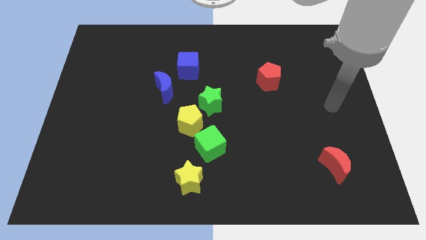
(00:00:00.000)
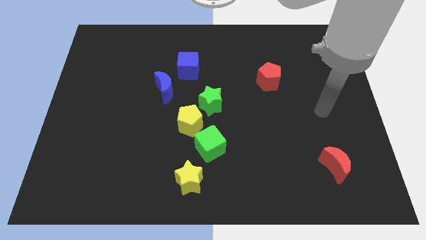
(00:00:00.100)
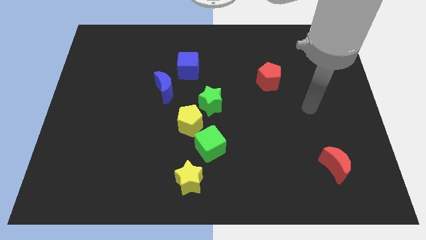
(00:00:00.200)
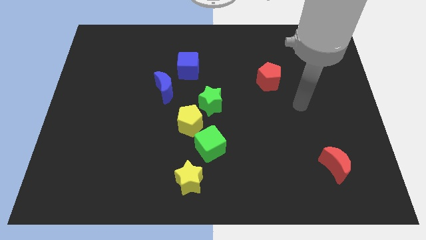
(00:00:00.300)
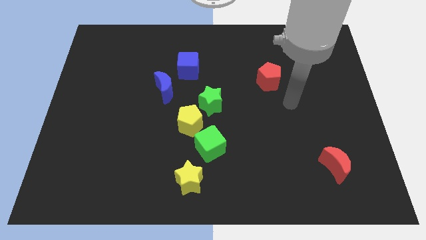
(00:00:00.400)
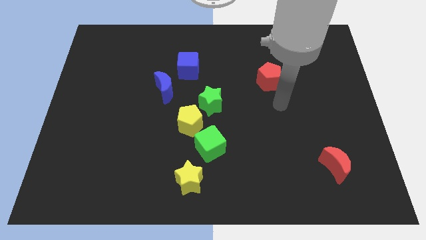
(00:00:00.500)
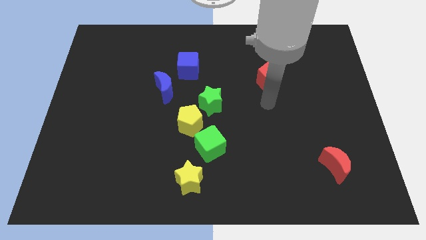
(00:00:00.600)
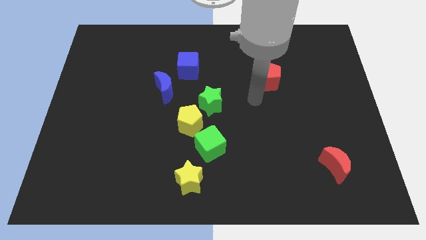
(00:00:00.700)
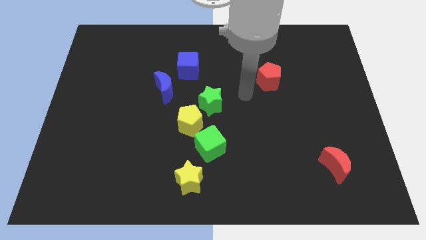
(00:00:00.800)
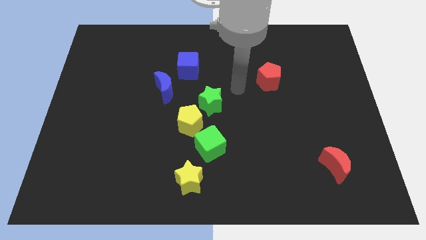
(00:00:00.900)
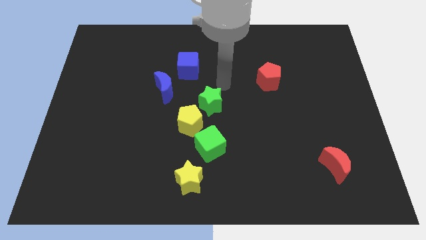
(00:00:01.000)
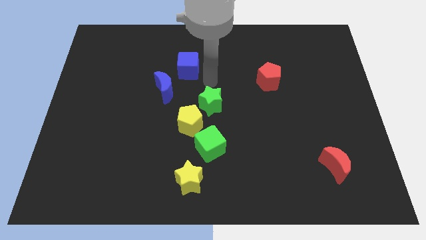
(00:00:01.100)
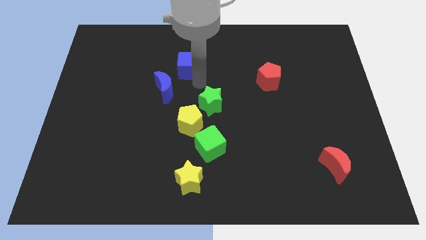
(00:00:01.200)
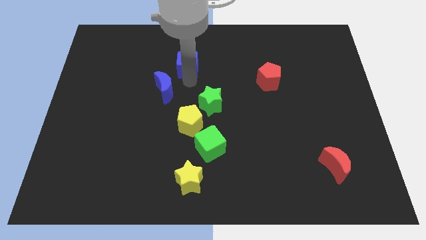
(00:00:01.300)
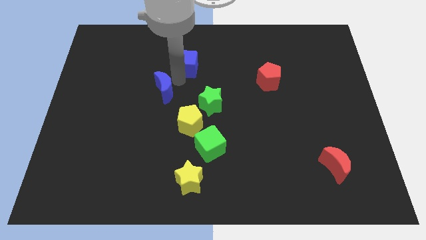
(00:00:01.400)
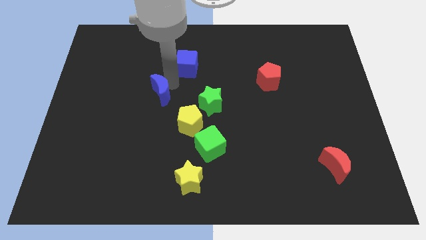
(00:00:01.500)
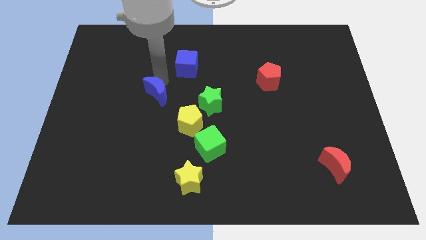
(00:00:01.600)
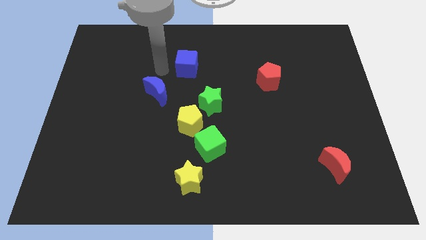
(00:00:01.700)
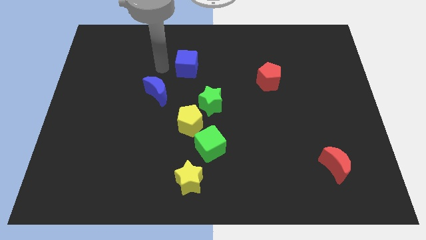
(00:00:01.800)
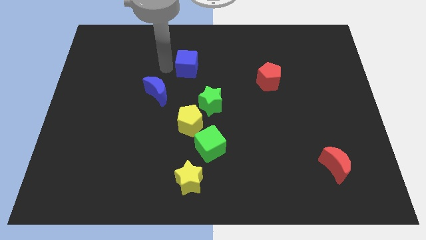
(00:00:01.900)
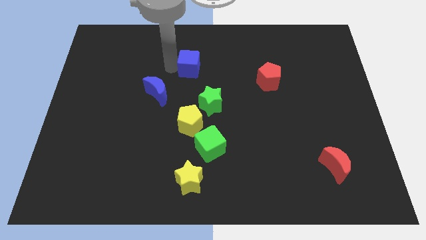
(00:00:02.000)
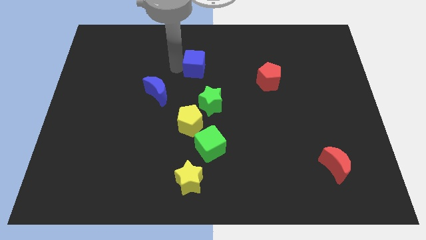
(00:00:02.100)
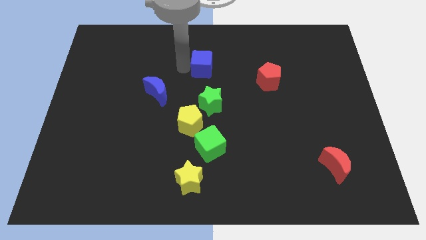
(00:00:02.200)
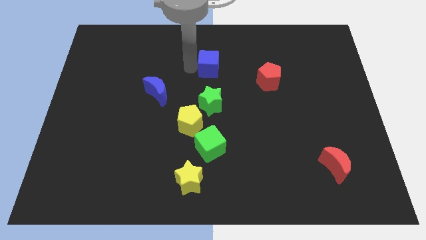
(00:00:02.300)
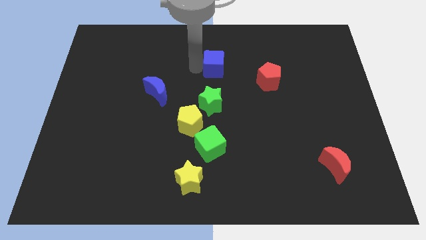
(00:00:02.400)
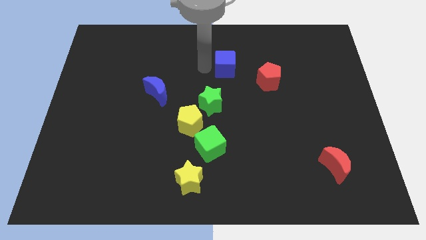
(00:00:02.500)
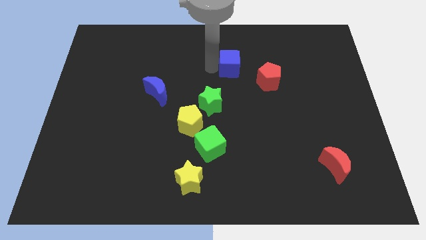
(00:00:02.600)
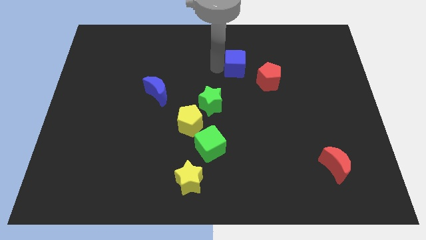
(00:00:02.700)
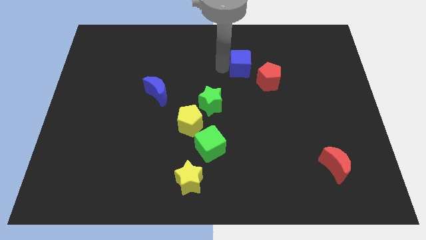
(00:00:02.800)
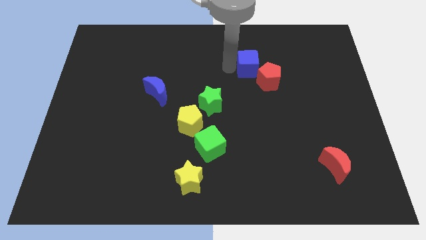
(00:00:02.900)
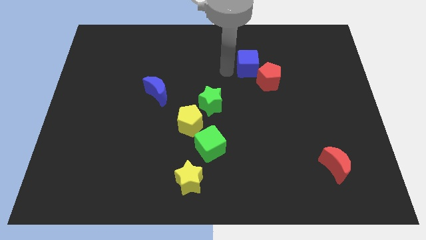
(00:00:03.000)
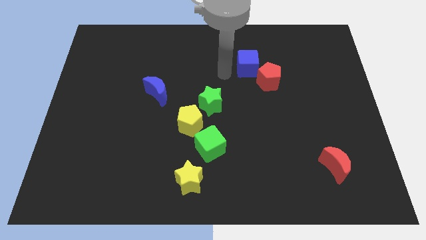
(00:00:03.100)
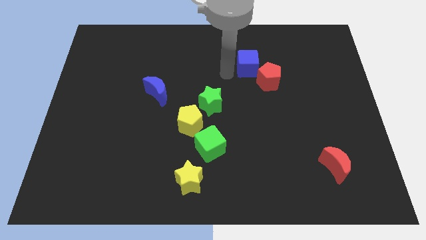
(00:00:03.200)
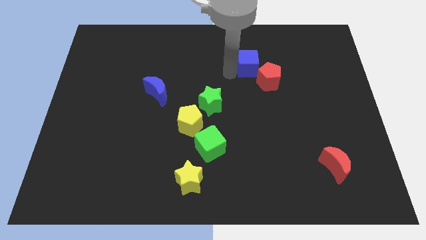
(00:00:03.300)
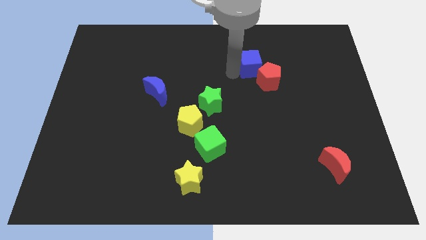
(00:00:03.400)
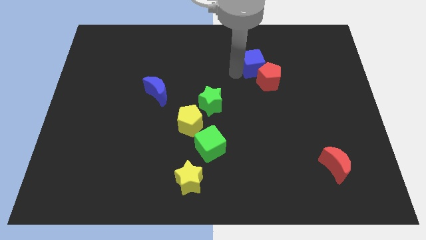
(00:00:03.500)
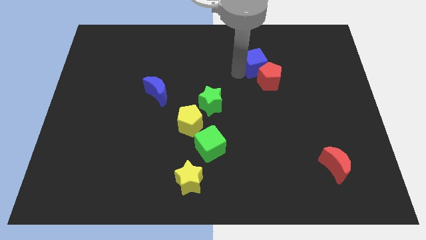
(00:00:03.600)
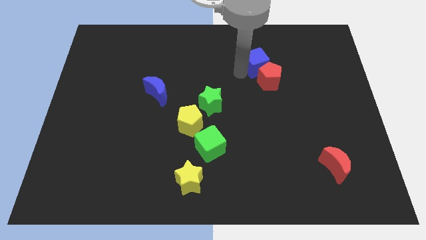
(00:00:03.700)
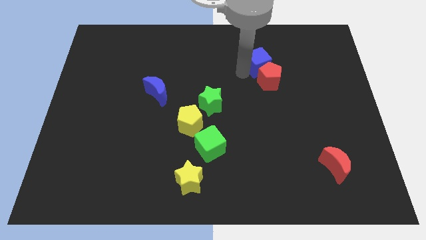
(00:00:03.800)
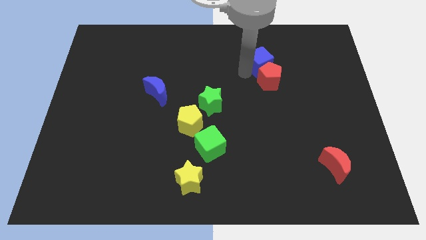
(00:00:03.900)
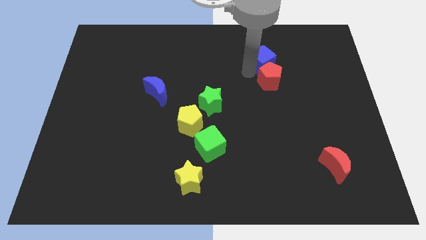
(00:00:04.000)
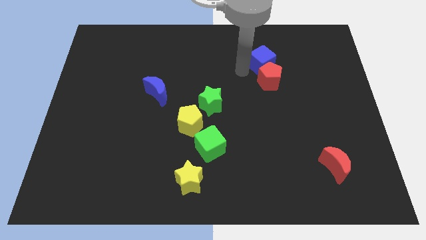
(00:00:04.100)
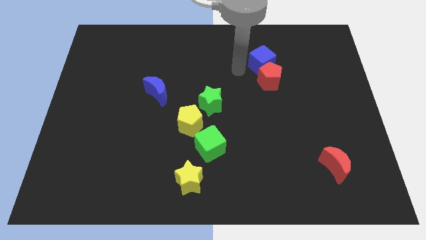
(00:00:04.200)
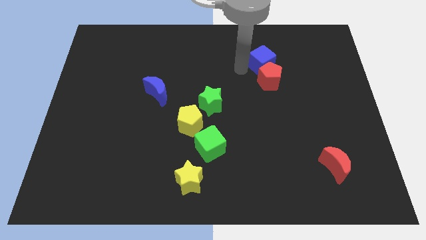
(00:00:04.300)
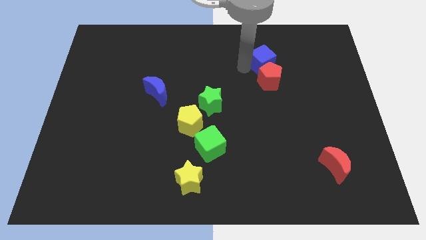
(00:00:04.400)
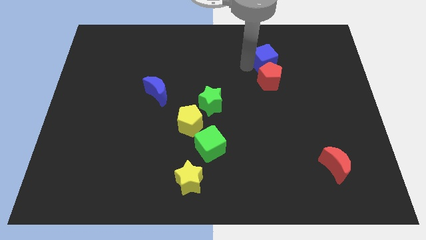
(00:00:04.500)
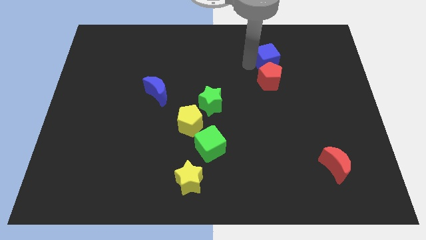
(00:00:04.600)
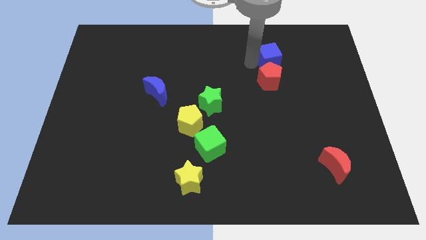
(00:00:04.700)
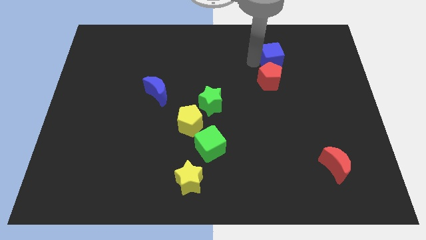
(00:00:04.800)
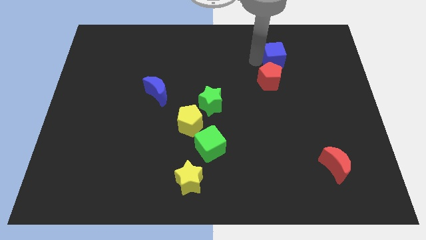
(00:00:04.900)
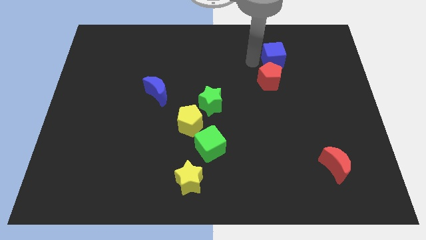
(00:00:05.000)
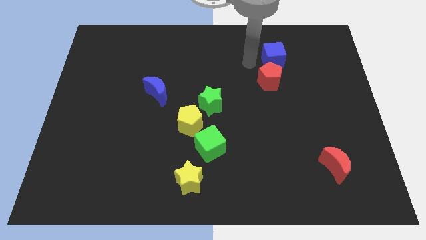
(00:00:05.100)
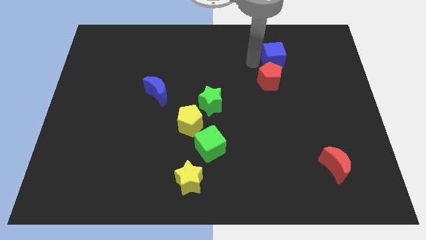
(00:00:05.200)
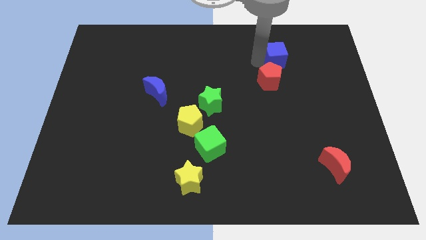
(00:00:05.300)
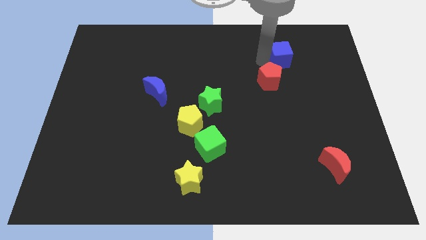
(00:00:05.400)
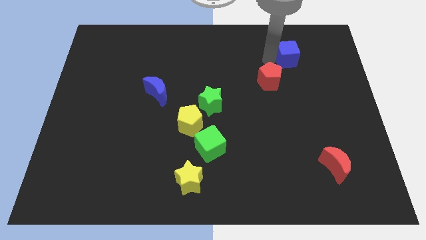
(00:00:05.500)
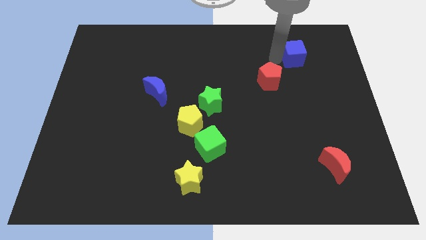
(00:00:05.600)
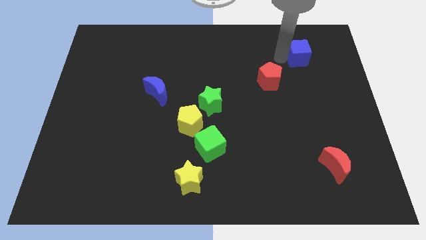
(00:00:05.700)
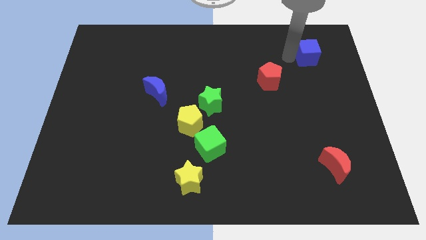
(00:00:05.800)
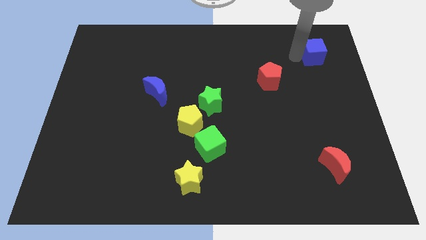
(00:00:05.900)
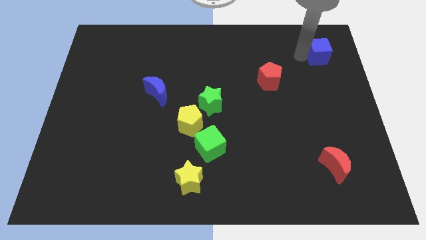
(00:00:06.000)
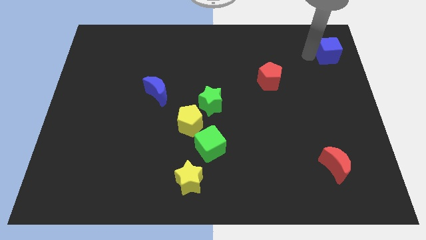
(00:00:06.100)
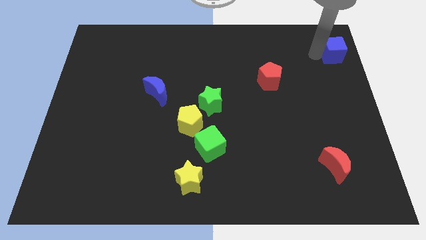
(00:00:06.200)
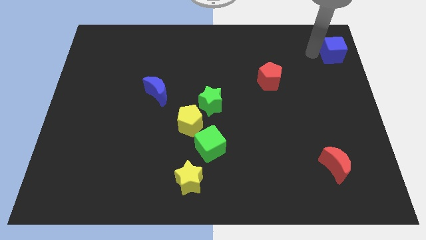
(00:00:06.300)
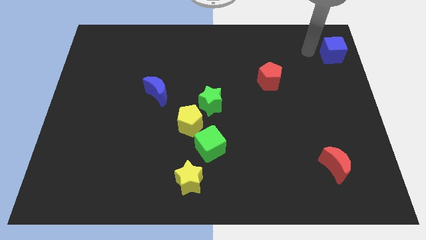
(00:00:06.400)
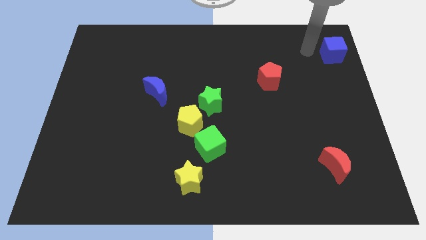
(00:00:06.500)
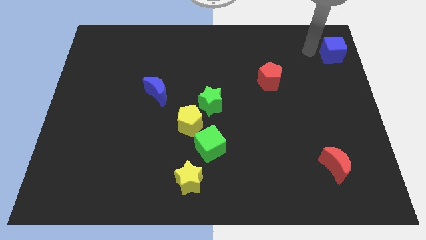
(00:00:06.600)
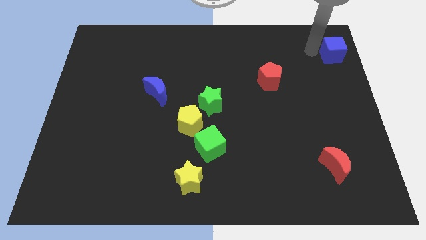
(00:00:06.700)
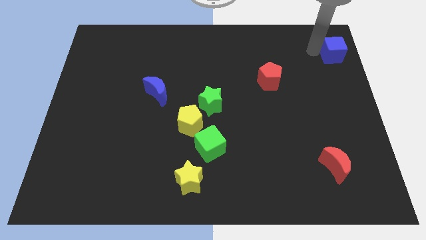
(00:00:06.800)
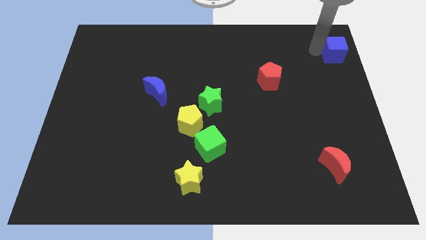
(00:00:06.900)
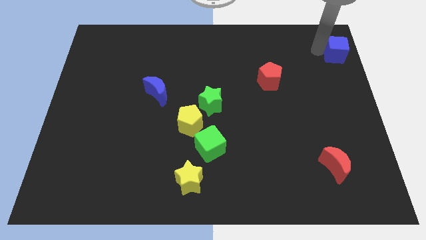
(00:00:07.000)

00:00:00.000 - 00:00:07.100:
push the blue cube to the upper right corner
